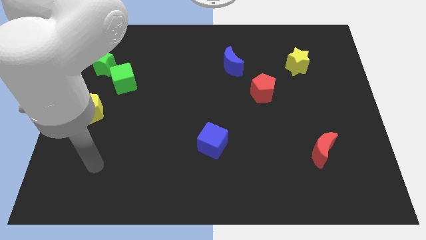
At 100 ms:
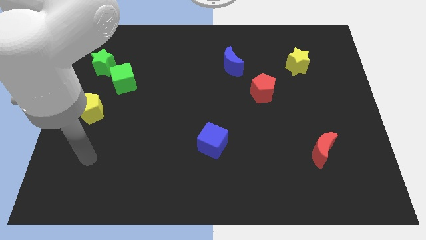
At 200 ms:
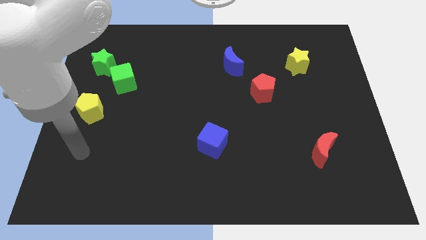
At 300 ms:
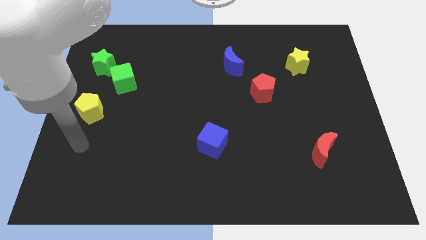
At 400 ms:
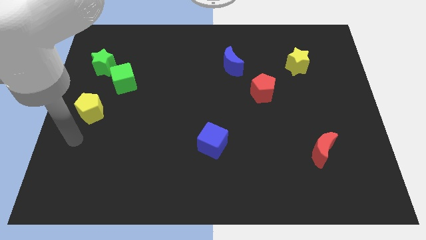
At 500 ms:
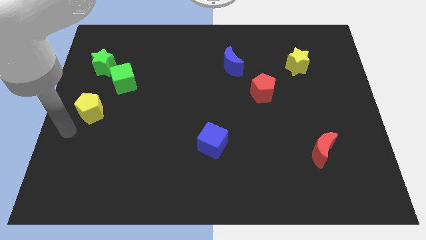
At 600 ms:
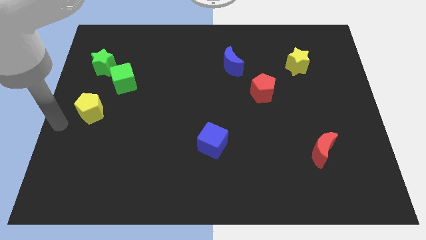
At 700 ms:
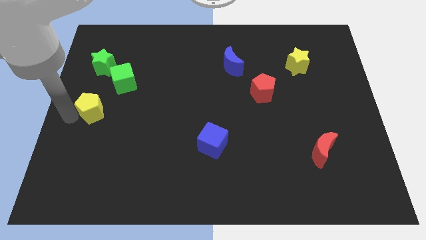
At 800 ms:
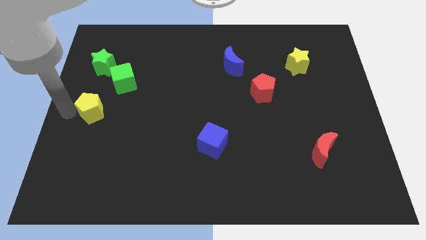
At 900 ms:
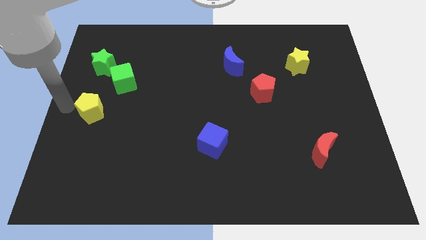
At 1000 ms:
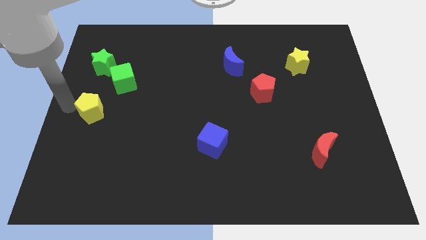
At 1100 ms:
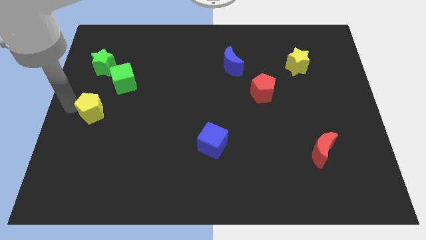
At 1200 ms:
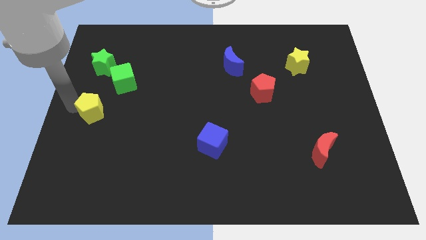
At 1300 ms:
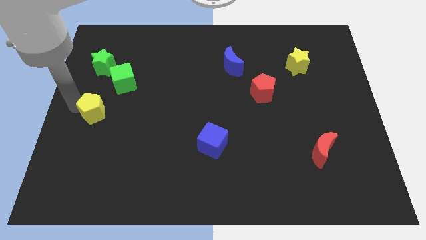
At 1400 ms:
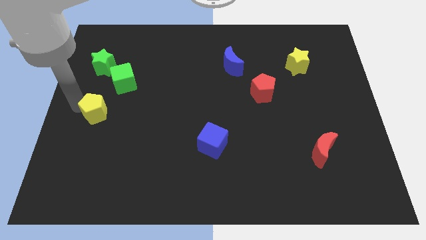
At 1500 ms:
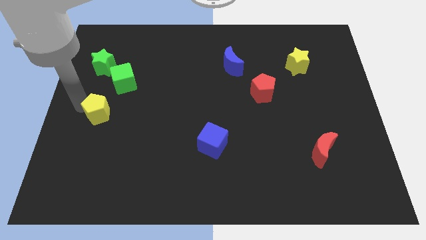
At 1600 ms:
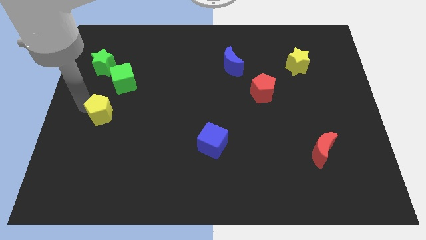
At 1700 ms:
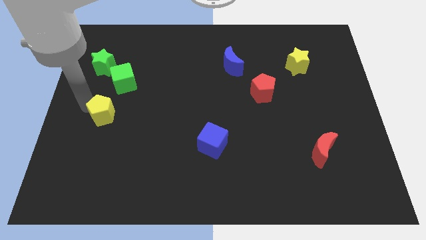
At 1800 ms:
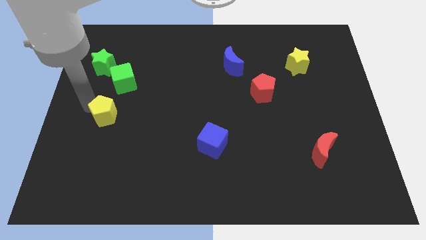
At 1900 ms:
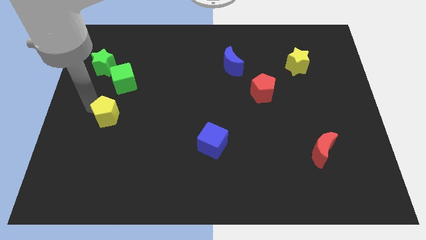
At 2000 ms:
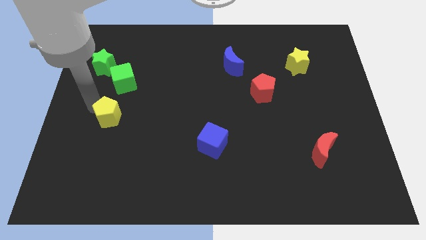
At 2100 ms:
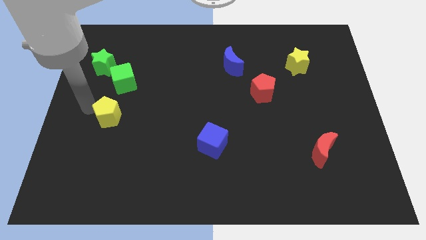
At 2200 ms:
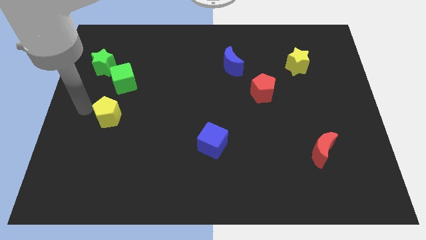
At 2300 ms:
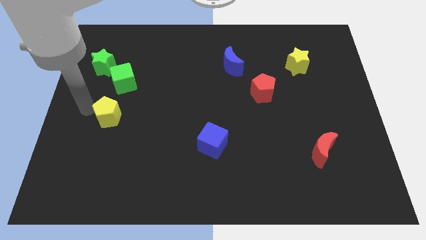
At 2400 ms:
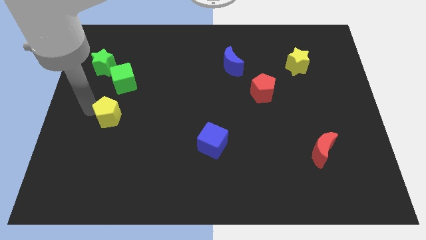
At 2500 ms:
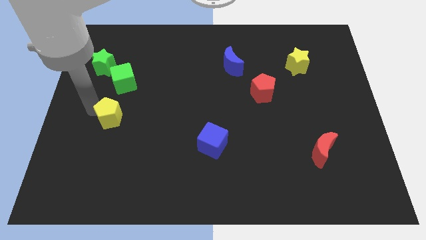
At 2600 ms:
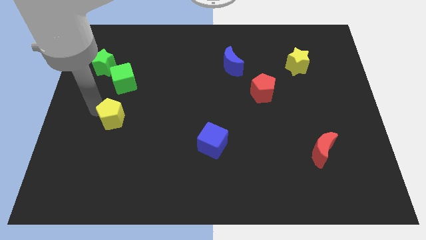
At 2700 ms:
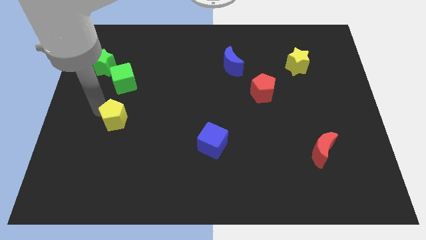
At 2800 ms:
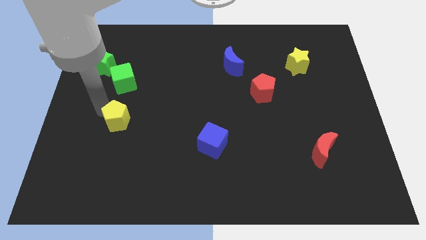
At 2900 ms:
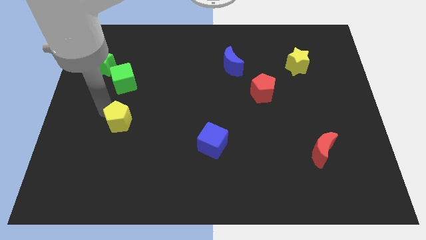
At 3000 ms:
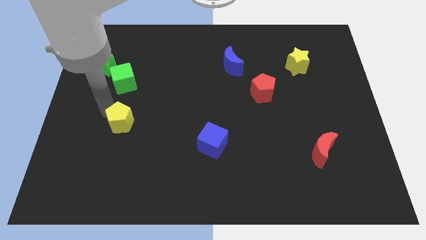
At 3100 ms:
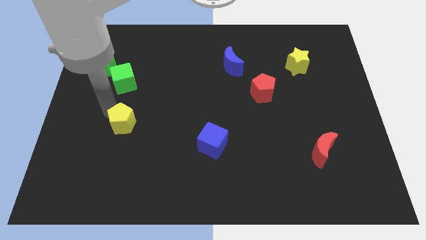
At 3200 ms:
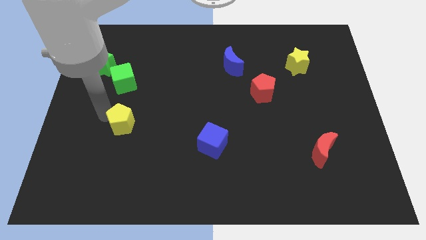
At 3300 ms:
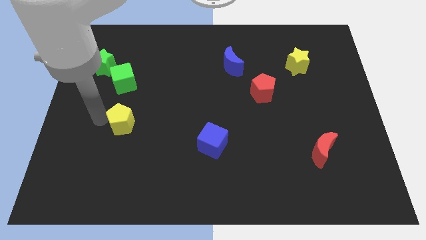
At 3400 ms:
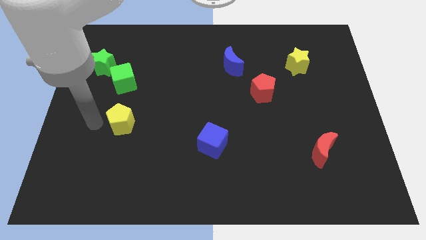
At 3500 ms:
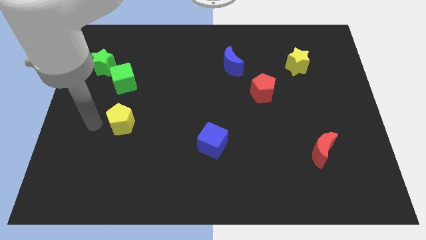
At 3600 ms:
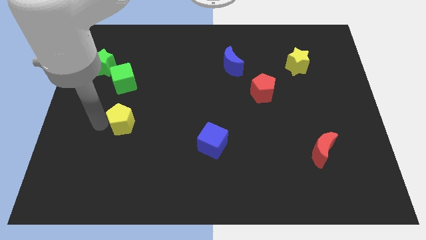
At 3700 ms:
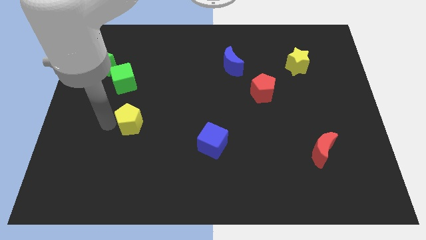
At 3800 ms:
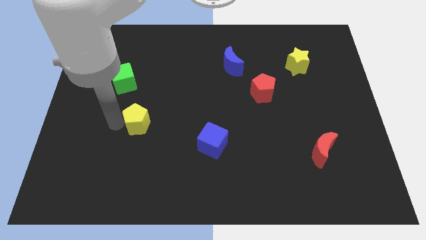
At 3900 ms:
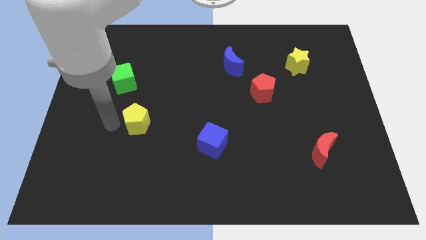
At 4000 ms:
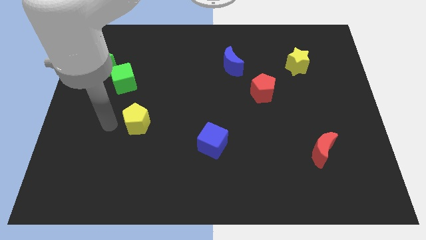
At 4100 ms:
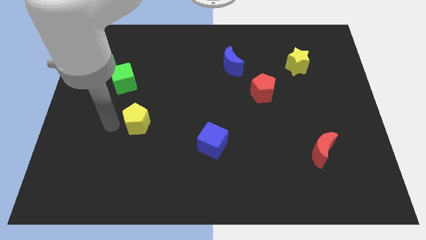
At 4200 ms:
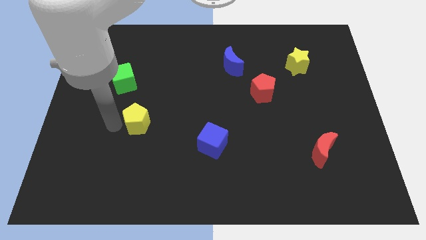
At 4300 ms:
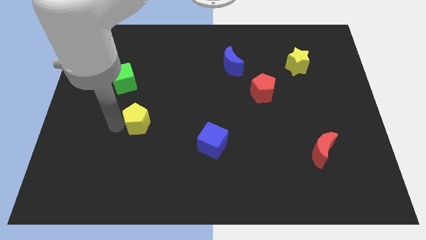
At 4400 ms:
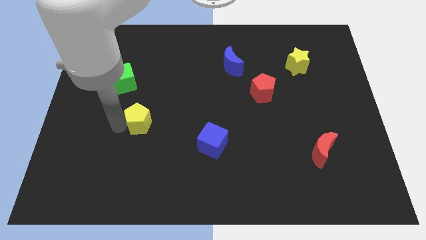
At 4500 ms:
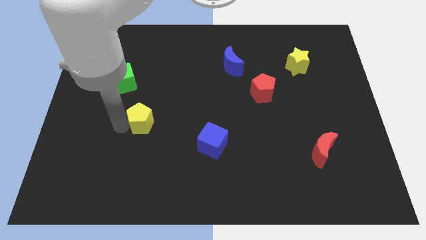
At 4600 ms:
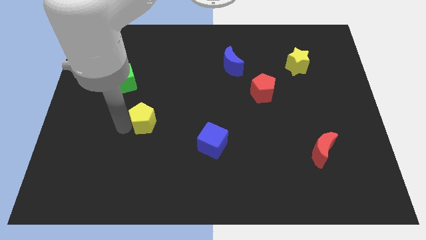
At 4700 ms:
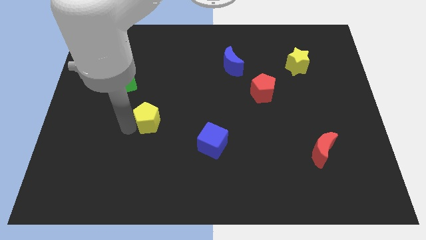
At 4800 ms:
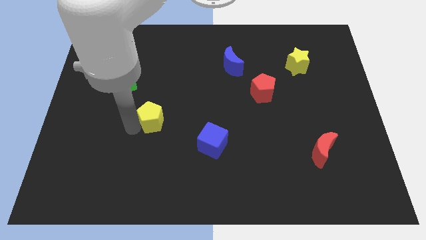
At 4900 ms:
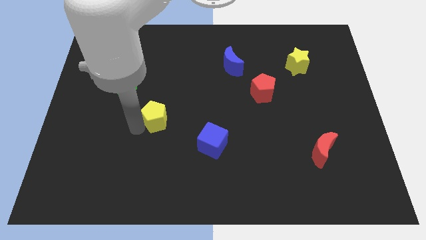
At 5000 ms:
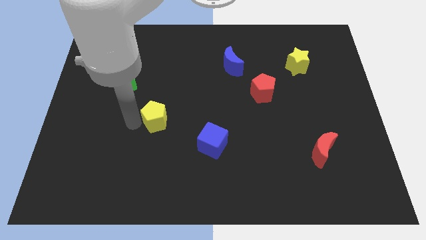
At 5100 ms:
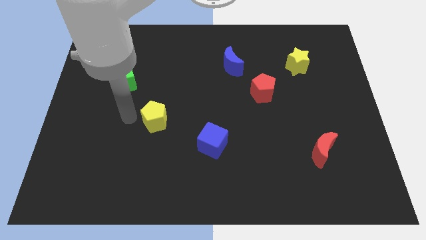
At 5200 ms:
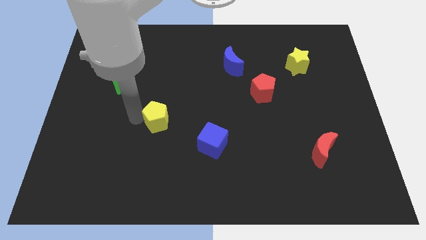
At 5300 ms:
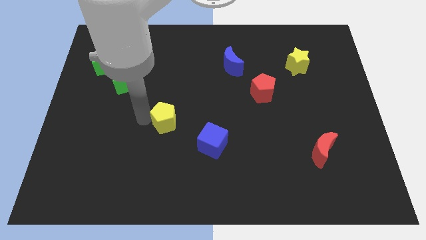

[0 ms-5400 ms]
push the yellow pentagon to the top left side of the blue cube
